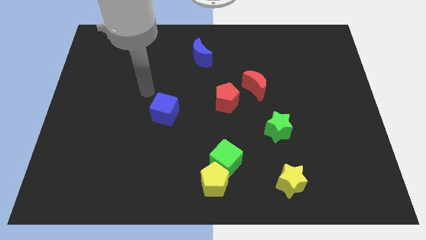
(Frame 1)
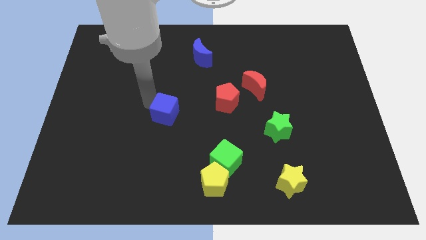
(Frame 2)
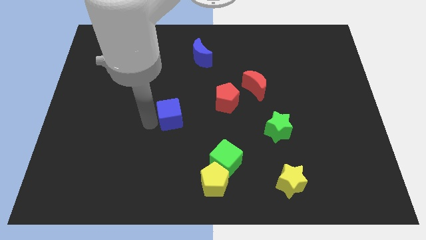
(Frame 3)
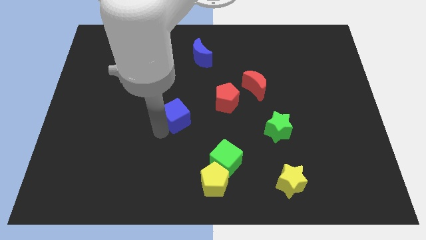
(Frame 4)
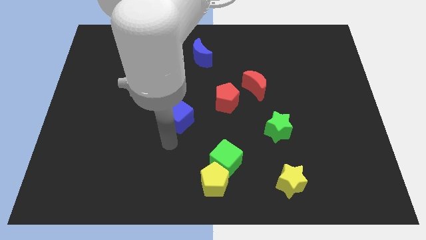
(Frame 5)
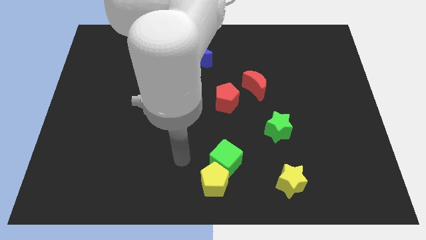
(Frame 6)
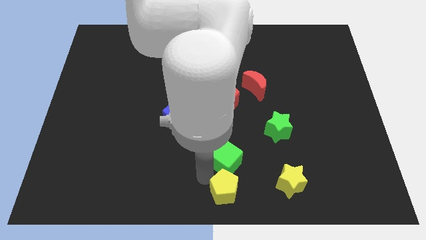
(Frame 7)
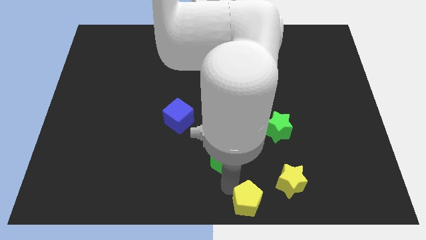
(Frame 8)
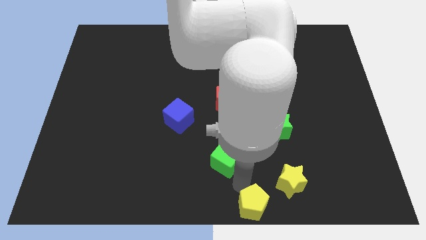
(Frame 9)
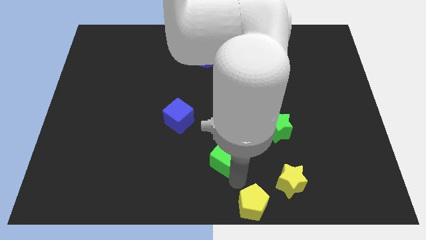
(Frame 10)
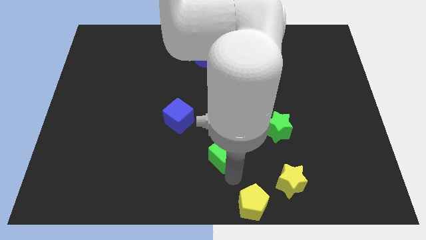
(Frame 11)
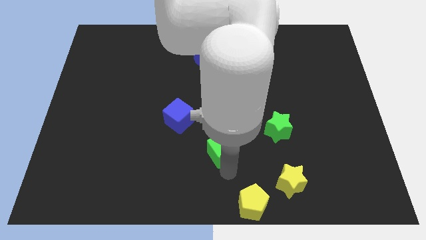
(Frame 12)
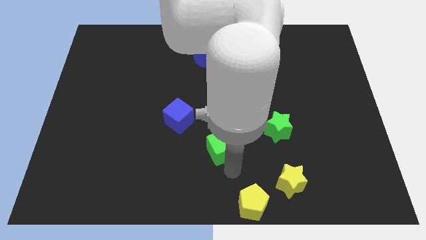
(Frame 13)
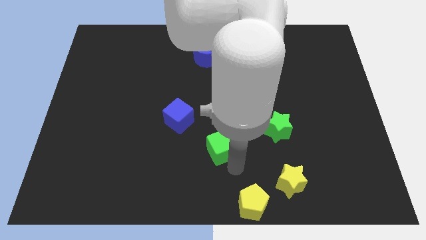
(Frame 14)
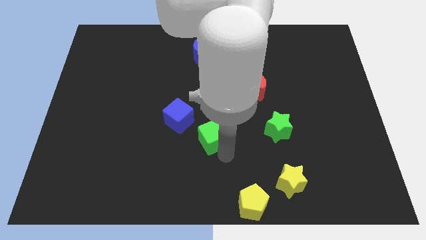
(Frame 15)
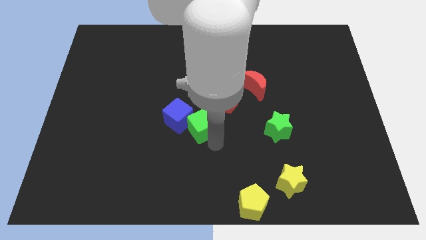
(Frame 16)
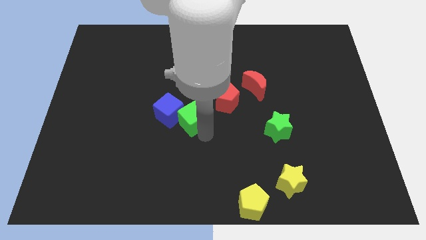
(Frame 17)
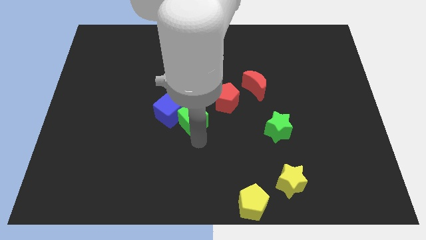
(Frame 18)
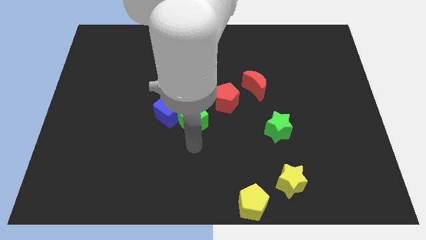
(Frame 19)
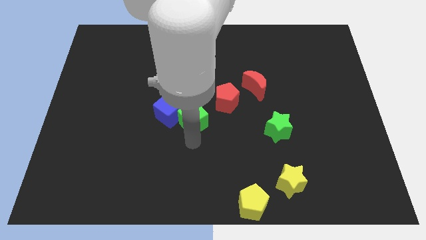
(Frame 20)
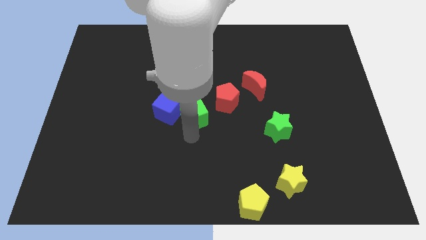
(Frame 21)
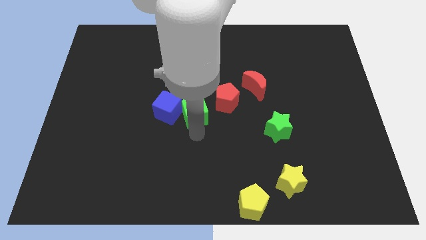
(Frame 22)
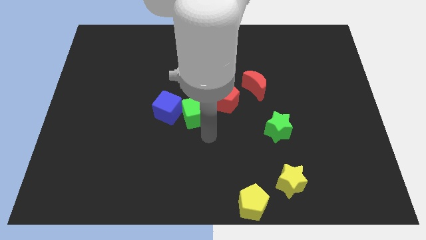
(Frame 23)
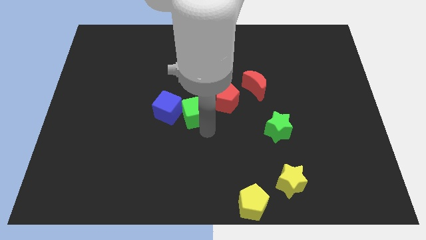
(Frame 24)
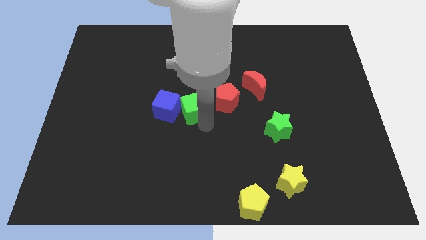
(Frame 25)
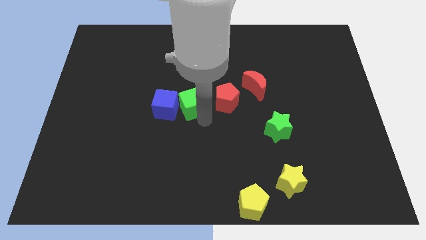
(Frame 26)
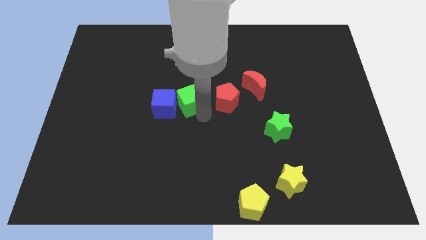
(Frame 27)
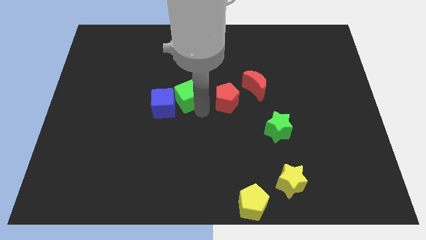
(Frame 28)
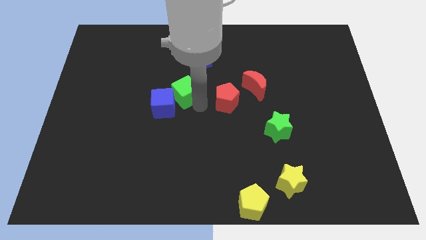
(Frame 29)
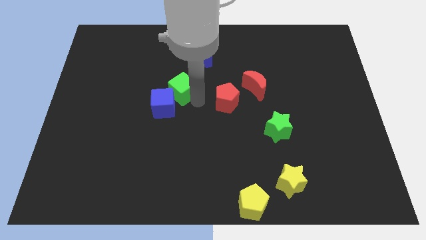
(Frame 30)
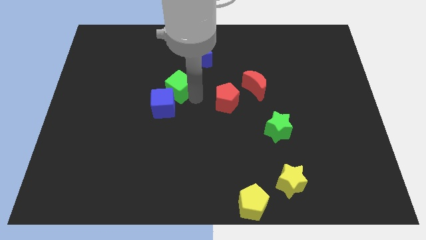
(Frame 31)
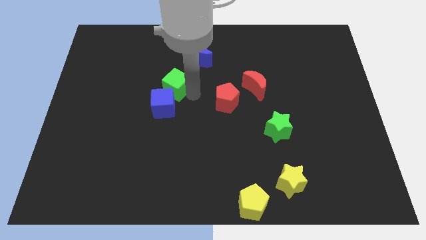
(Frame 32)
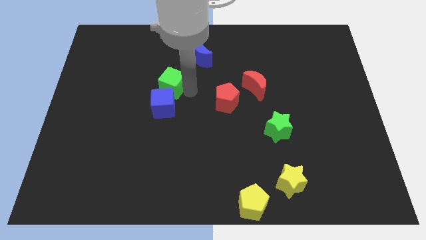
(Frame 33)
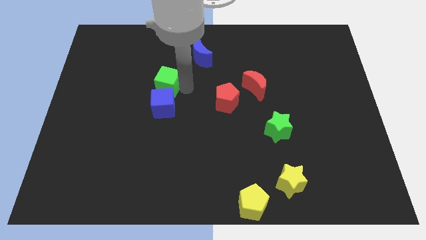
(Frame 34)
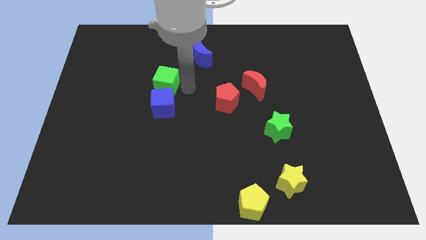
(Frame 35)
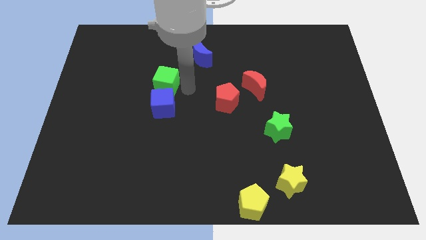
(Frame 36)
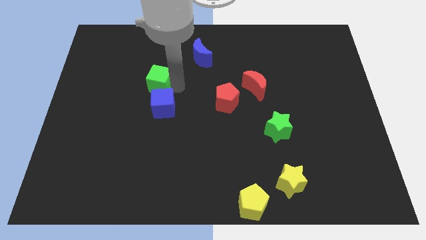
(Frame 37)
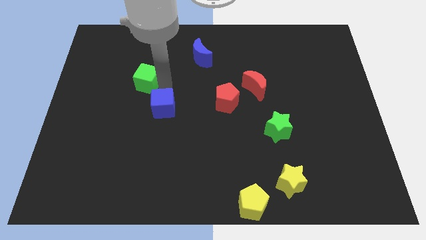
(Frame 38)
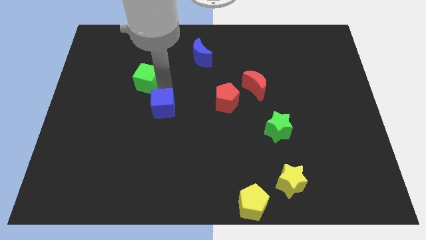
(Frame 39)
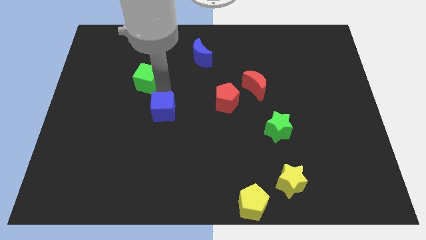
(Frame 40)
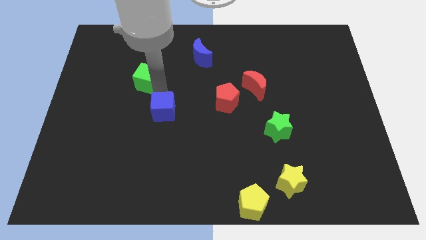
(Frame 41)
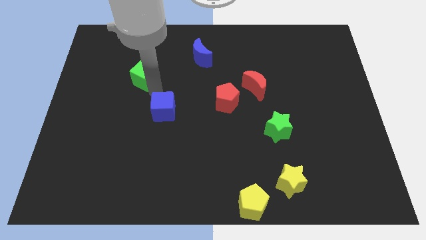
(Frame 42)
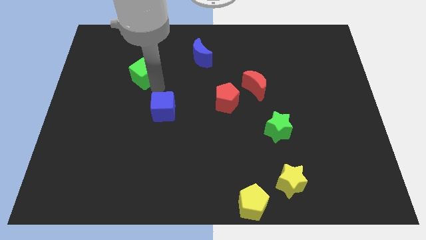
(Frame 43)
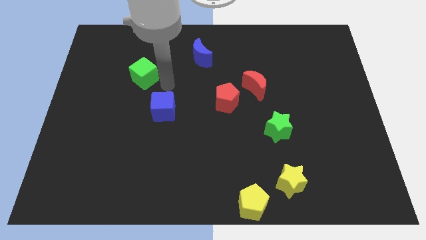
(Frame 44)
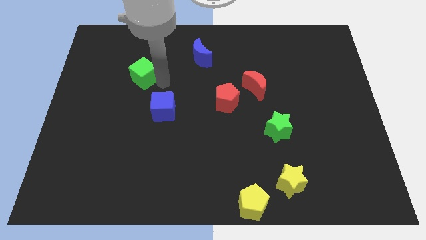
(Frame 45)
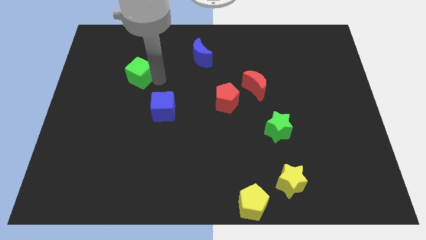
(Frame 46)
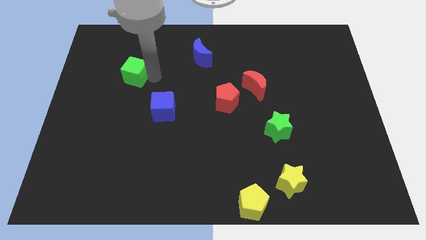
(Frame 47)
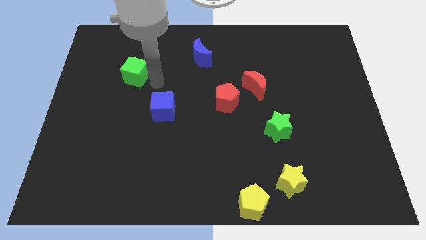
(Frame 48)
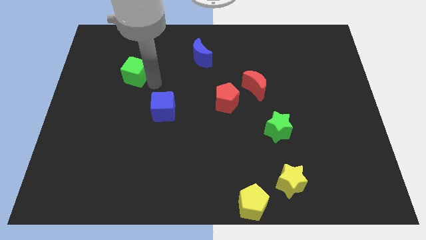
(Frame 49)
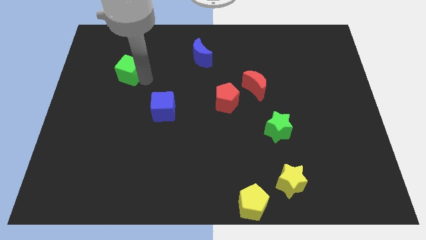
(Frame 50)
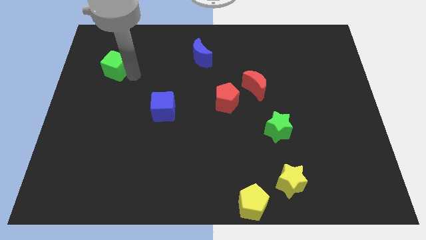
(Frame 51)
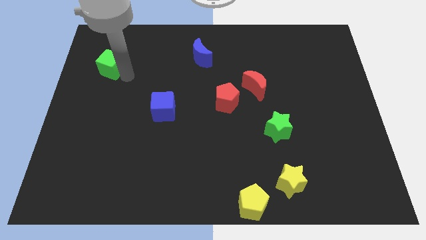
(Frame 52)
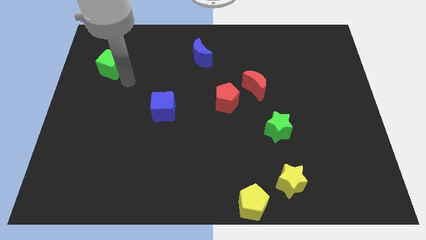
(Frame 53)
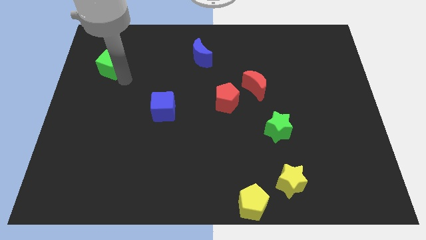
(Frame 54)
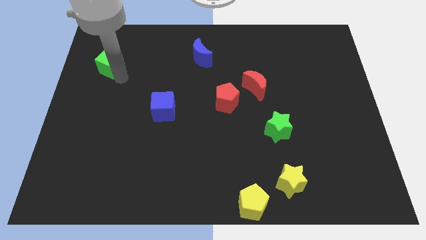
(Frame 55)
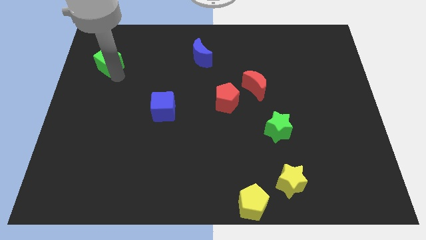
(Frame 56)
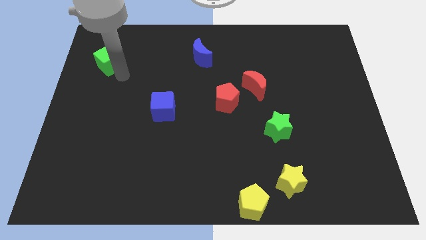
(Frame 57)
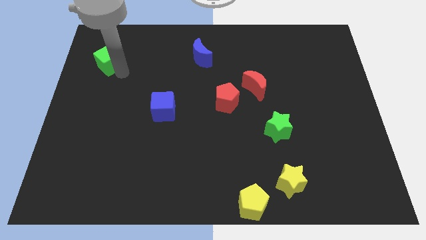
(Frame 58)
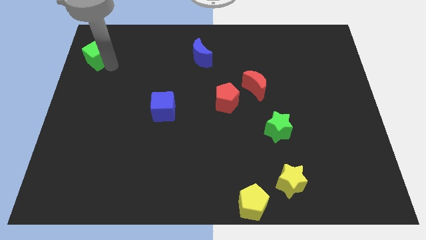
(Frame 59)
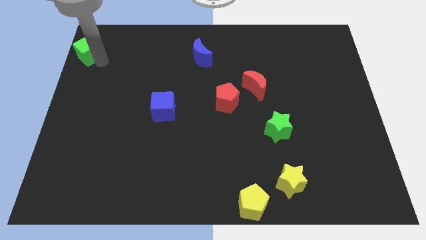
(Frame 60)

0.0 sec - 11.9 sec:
push the green cube to the top left corner

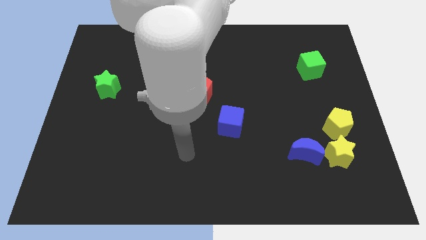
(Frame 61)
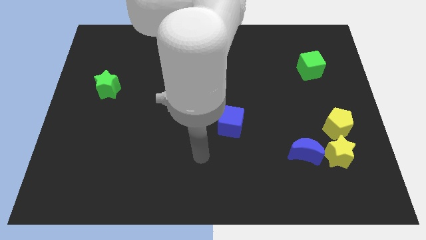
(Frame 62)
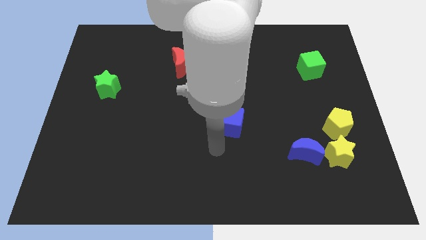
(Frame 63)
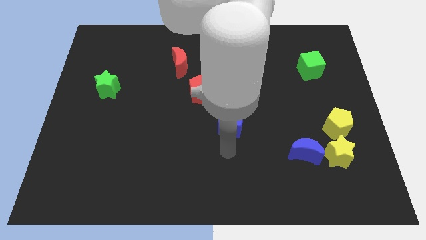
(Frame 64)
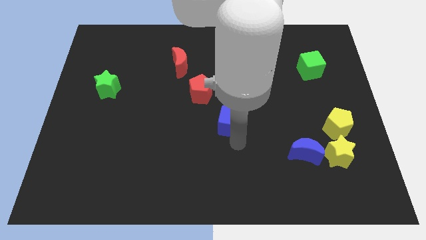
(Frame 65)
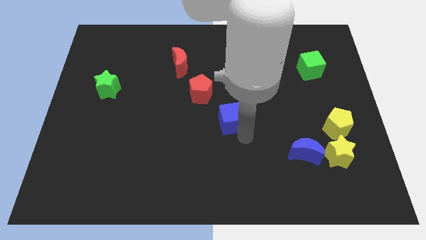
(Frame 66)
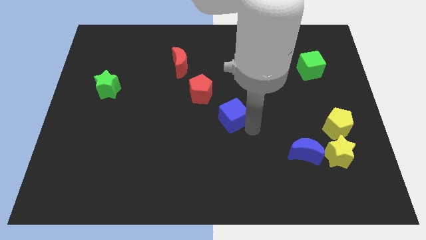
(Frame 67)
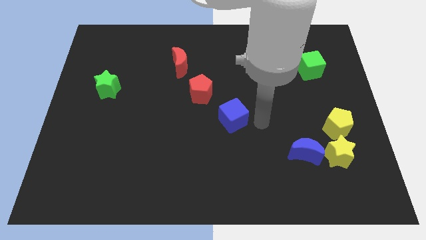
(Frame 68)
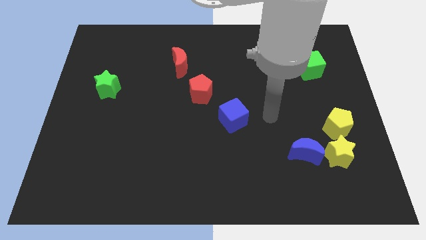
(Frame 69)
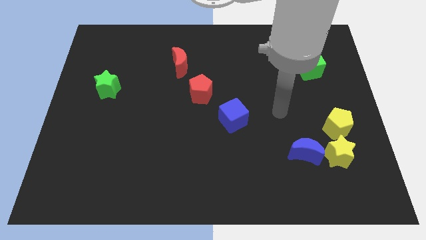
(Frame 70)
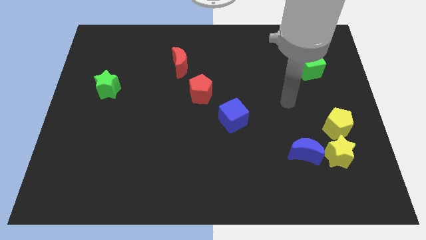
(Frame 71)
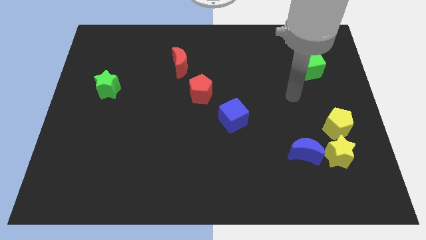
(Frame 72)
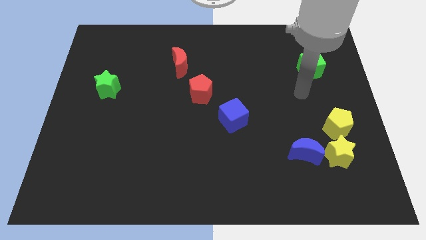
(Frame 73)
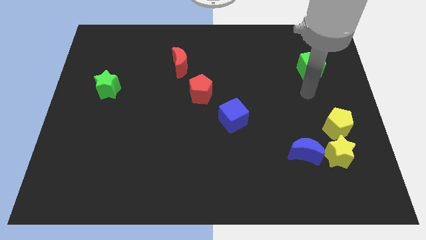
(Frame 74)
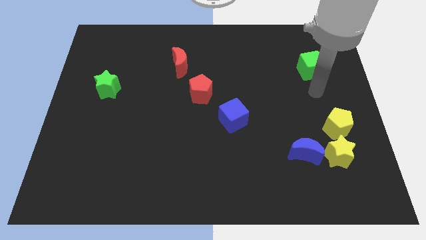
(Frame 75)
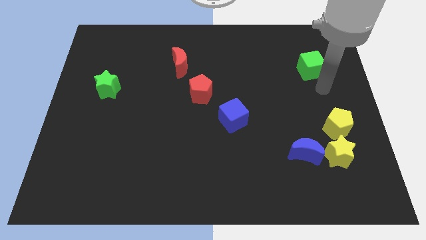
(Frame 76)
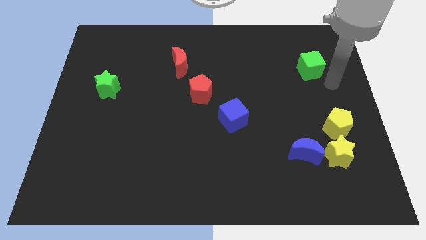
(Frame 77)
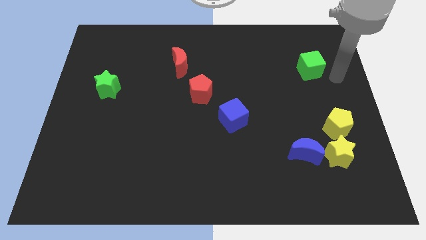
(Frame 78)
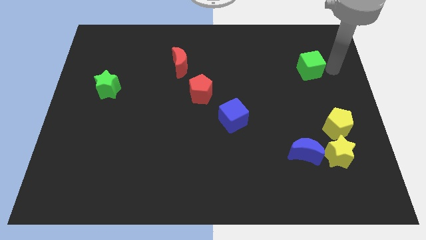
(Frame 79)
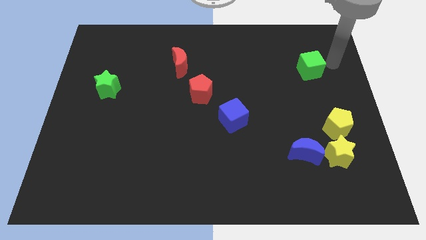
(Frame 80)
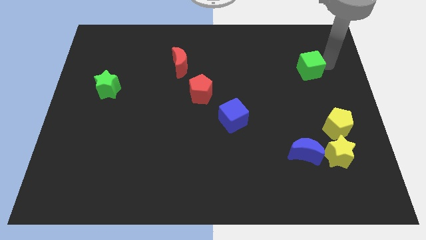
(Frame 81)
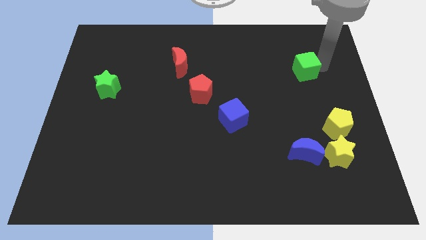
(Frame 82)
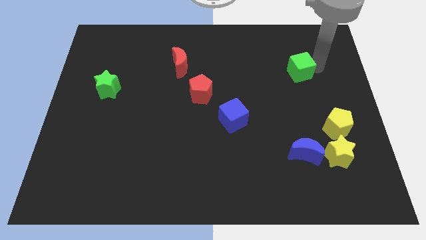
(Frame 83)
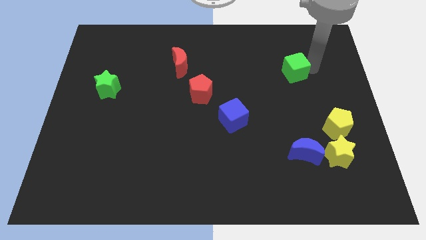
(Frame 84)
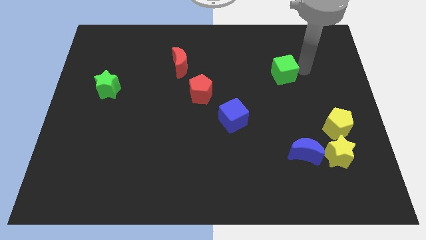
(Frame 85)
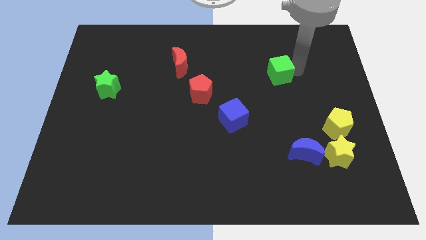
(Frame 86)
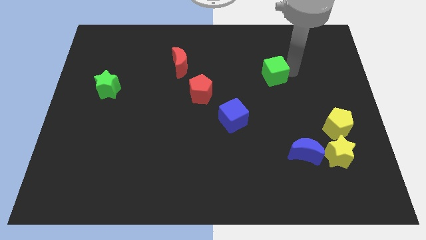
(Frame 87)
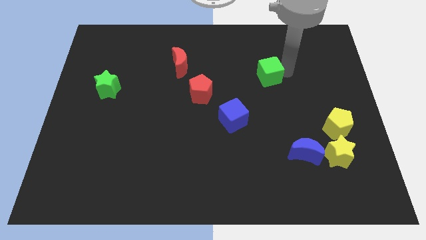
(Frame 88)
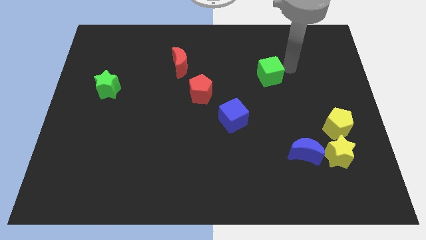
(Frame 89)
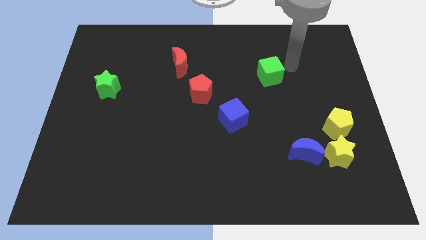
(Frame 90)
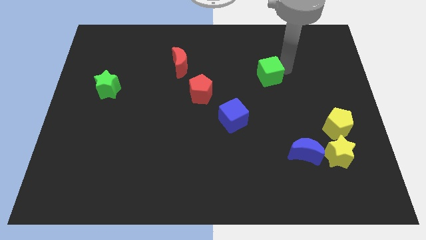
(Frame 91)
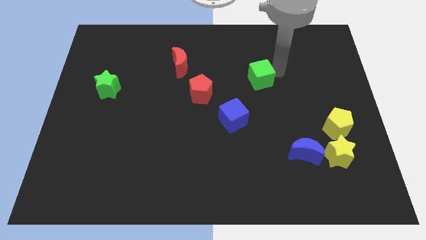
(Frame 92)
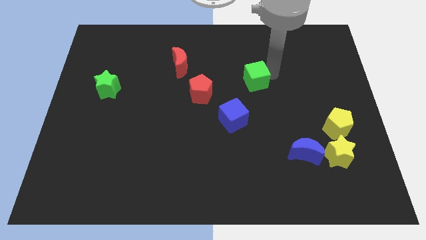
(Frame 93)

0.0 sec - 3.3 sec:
slide the green cube to the middle
